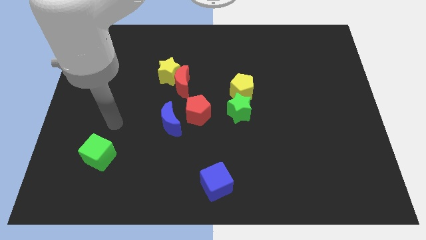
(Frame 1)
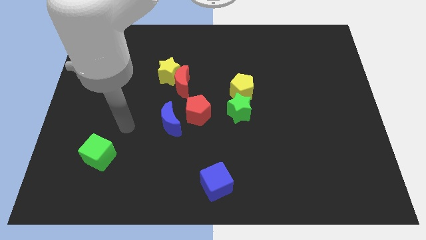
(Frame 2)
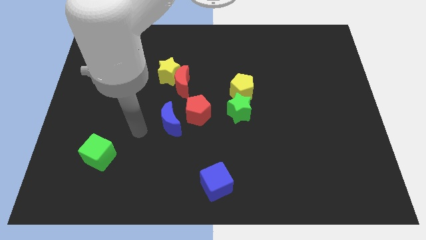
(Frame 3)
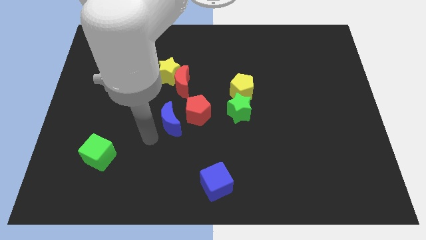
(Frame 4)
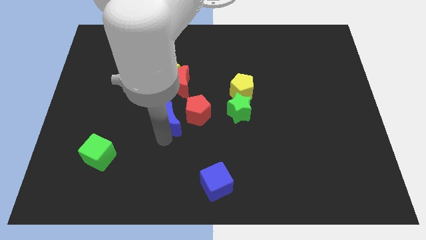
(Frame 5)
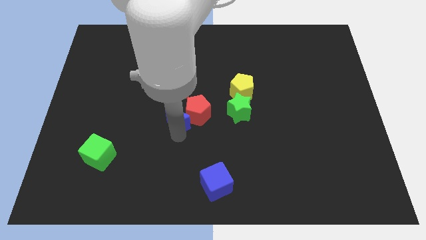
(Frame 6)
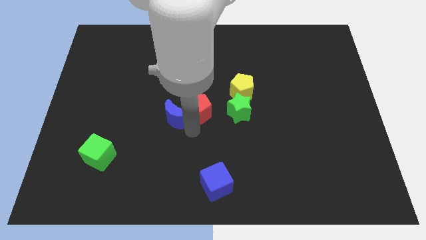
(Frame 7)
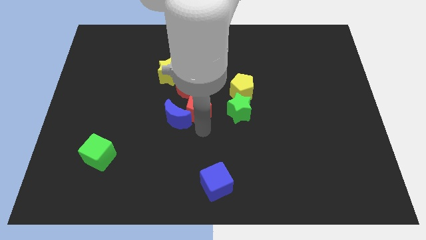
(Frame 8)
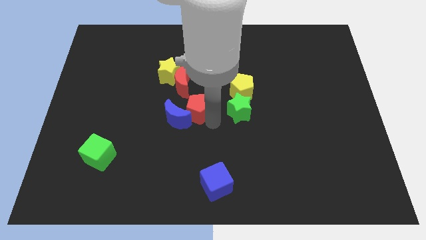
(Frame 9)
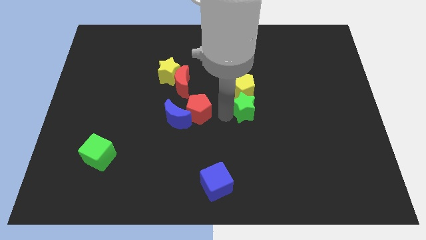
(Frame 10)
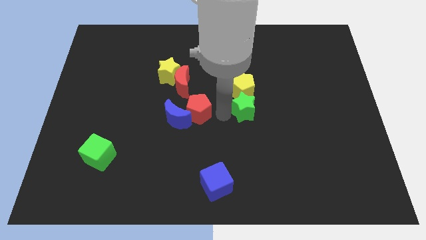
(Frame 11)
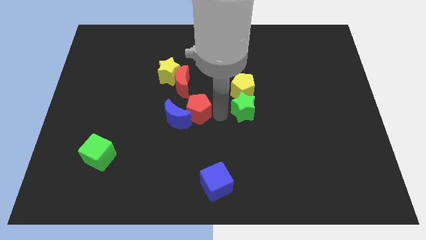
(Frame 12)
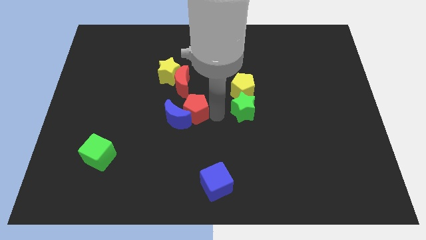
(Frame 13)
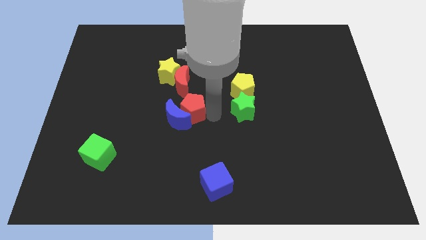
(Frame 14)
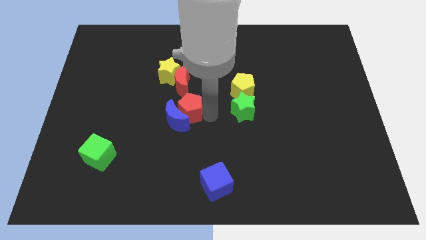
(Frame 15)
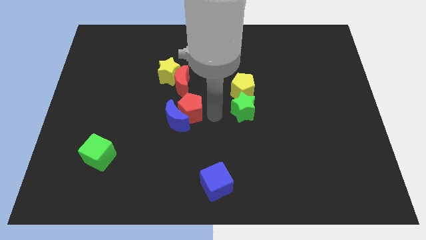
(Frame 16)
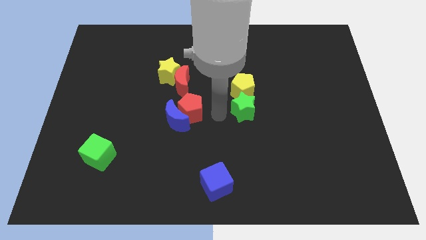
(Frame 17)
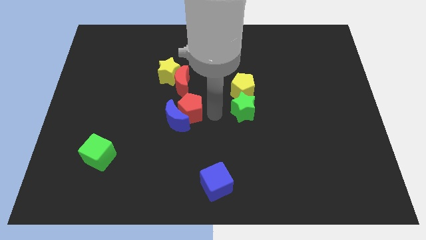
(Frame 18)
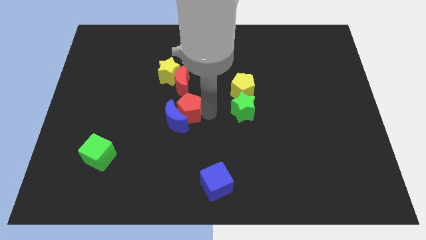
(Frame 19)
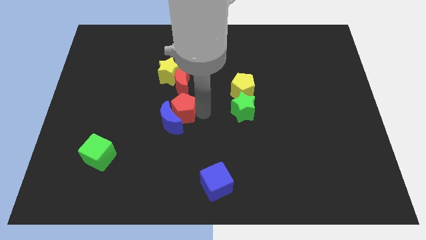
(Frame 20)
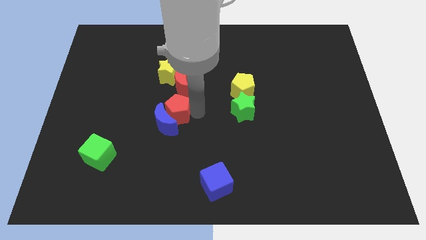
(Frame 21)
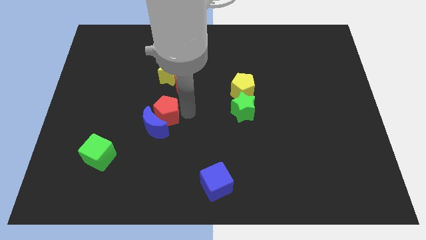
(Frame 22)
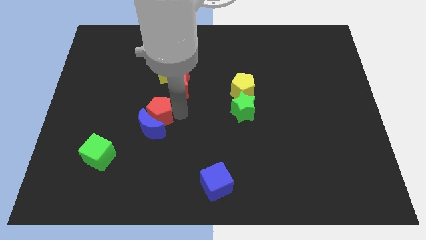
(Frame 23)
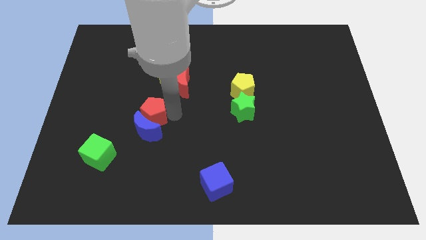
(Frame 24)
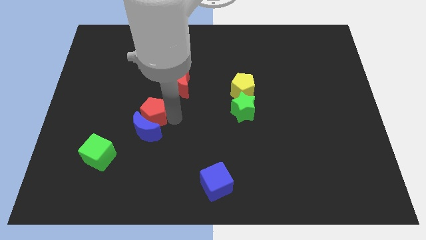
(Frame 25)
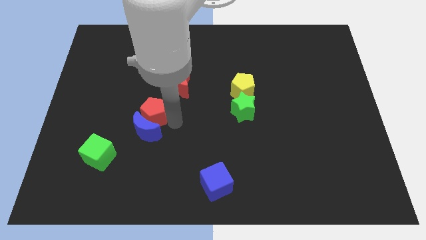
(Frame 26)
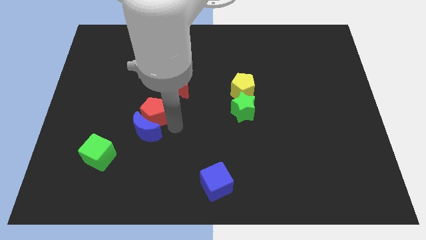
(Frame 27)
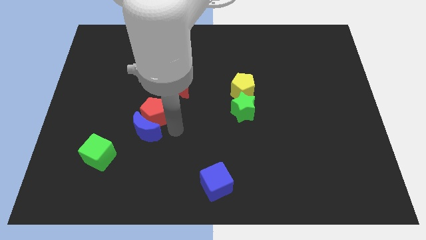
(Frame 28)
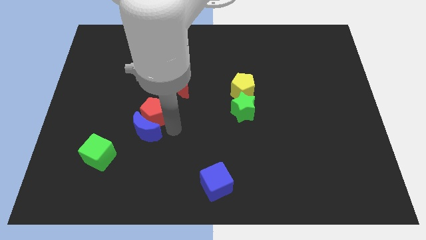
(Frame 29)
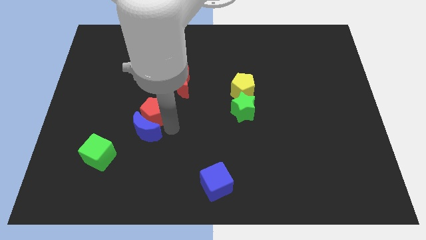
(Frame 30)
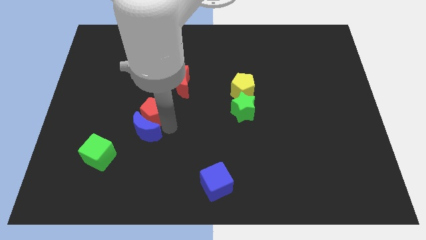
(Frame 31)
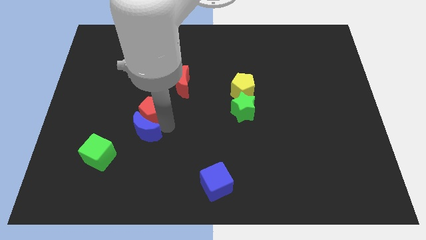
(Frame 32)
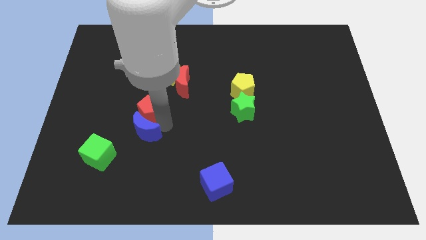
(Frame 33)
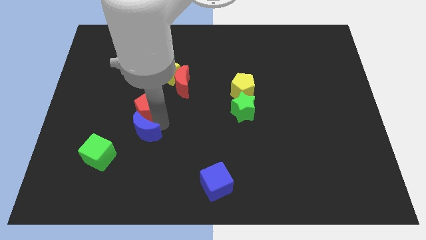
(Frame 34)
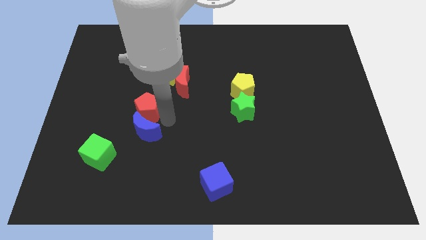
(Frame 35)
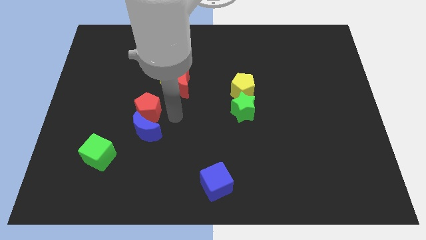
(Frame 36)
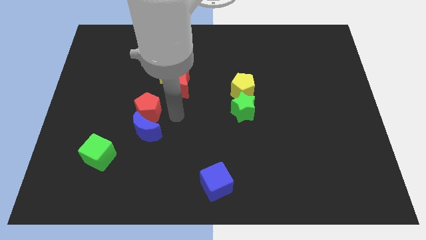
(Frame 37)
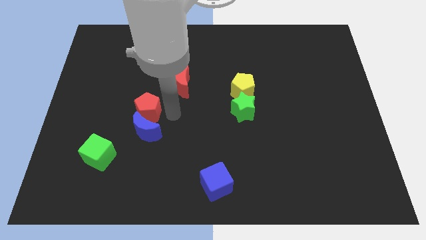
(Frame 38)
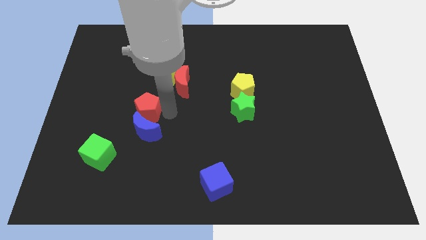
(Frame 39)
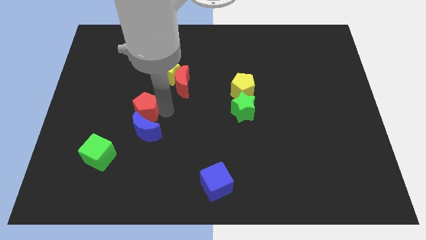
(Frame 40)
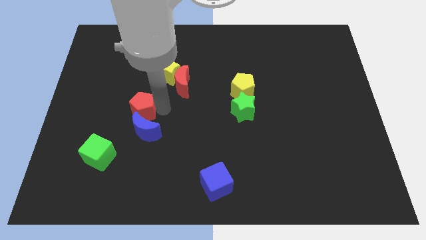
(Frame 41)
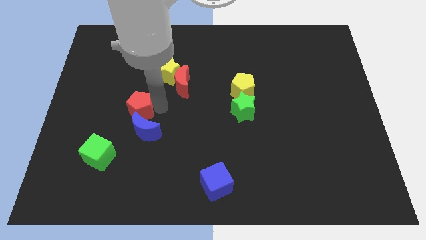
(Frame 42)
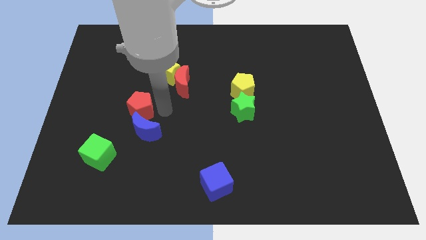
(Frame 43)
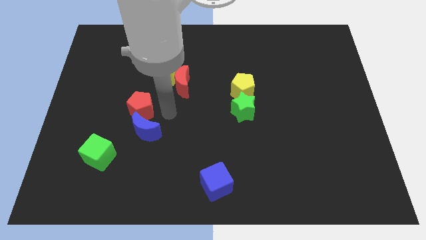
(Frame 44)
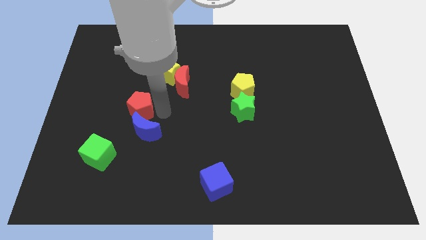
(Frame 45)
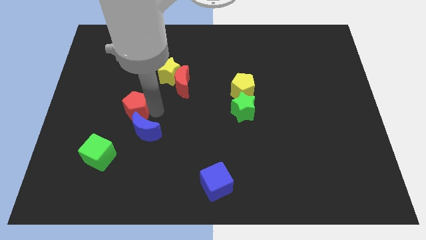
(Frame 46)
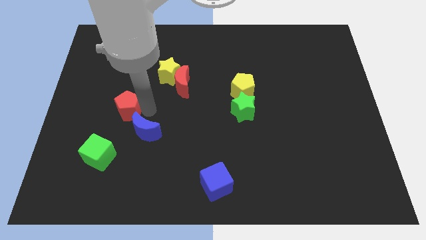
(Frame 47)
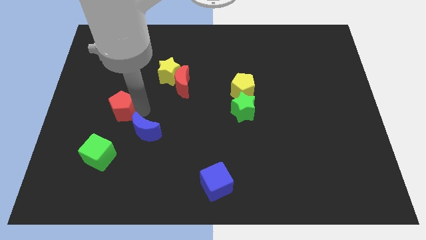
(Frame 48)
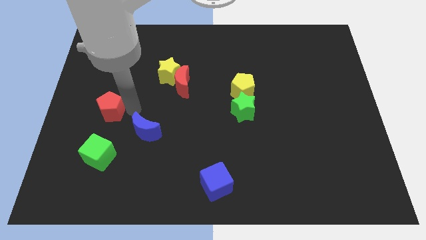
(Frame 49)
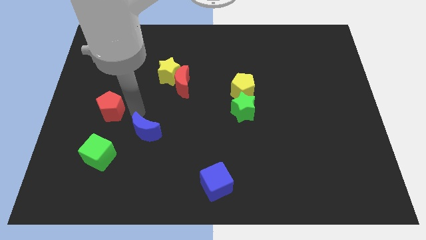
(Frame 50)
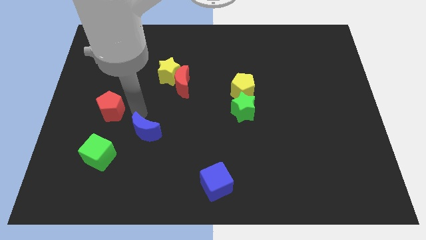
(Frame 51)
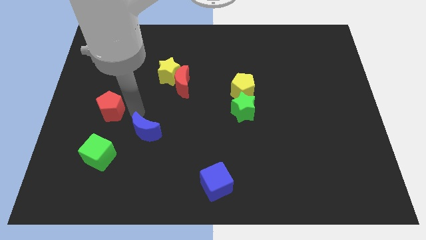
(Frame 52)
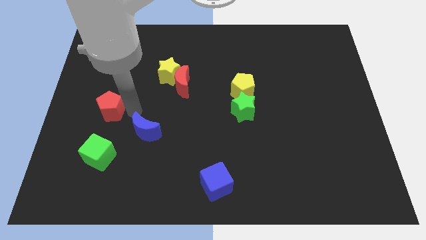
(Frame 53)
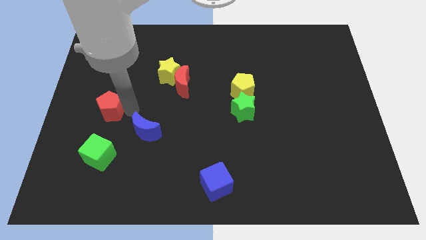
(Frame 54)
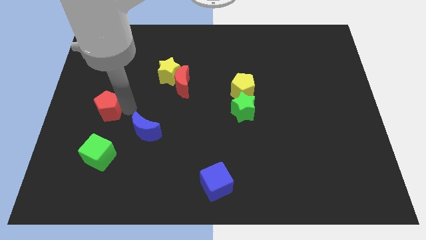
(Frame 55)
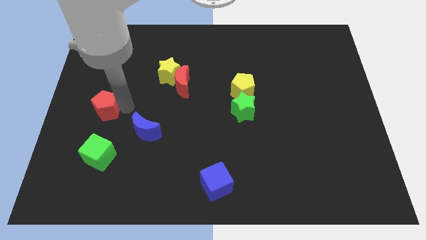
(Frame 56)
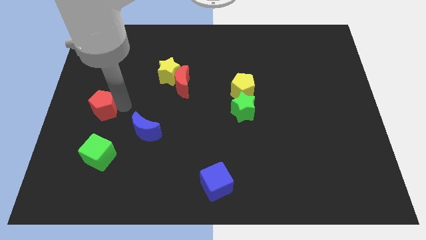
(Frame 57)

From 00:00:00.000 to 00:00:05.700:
slide the red pentagon to the center left

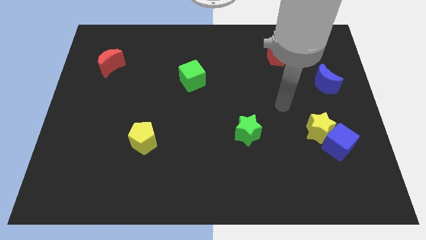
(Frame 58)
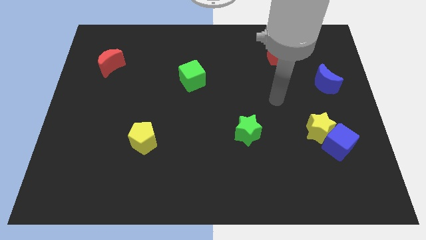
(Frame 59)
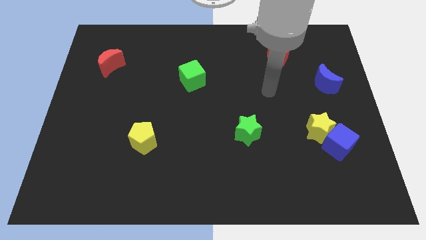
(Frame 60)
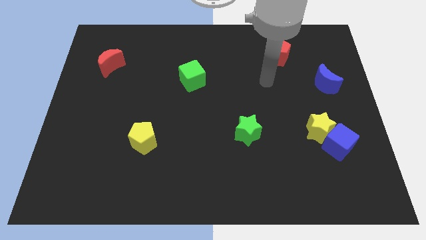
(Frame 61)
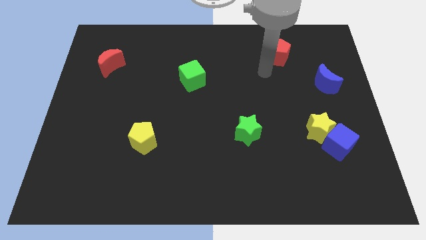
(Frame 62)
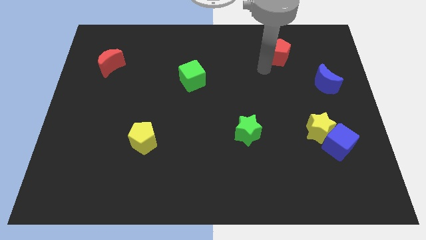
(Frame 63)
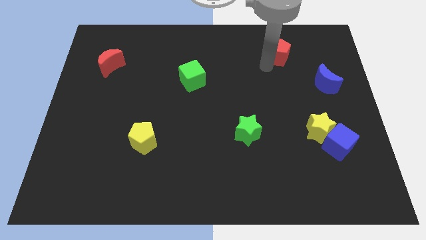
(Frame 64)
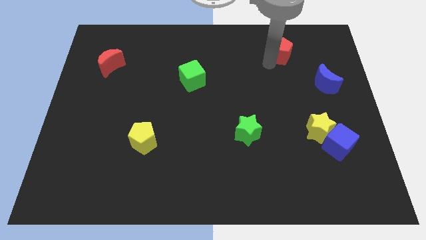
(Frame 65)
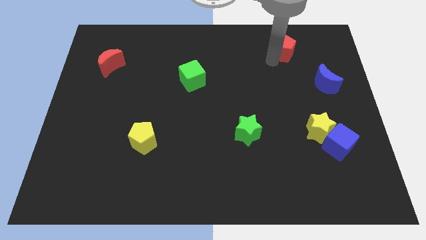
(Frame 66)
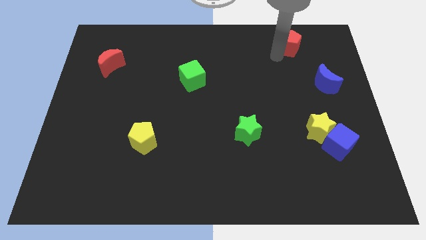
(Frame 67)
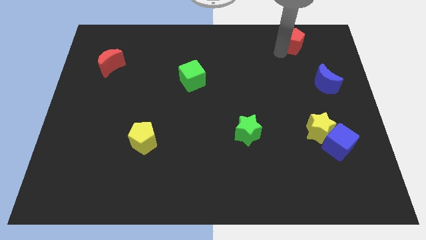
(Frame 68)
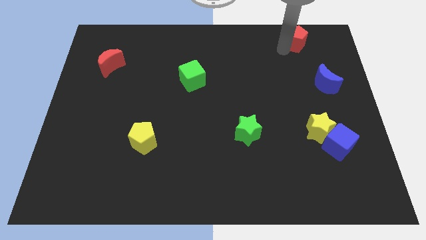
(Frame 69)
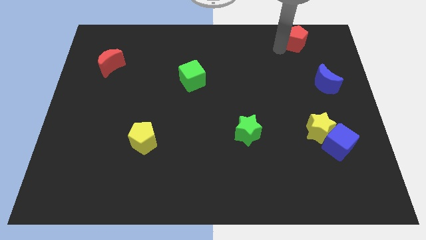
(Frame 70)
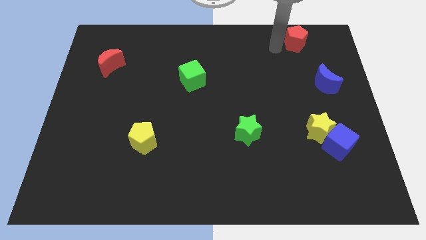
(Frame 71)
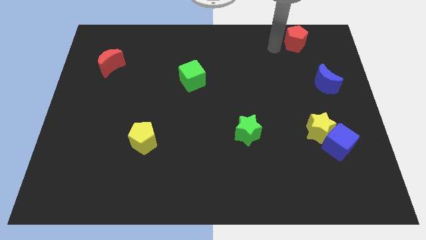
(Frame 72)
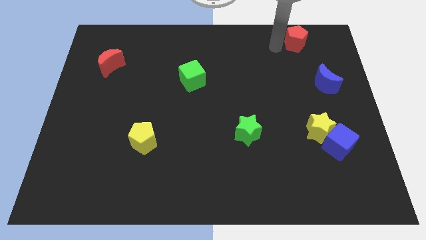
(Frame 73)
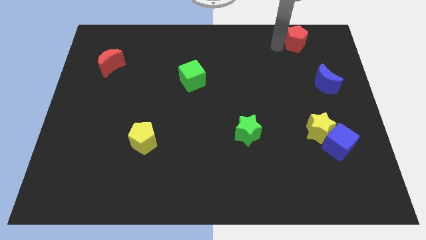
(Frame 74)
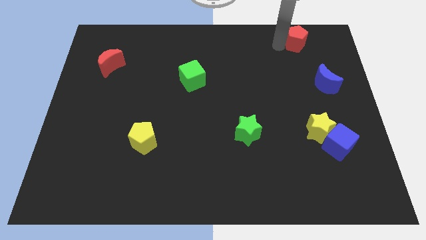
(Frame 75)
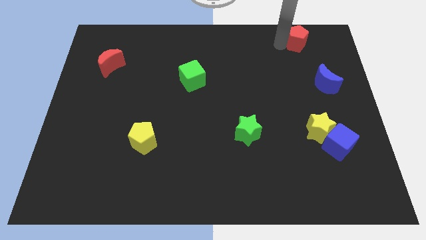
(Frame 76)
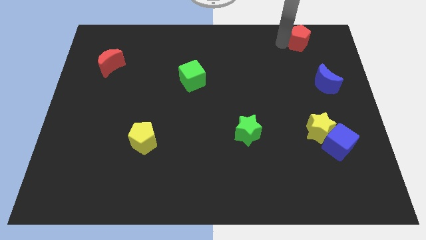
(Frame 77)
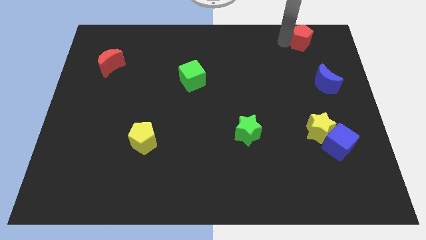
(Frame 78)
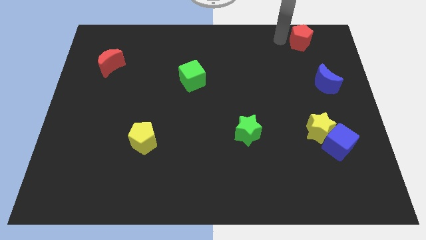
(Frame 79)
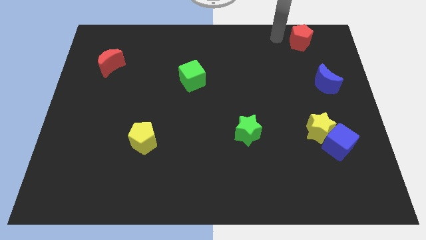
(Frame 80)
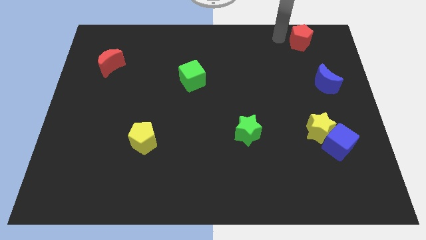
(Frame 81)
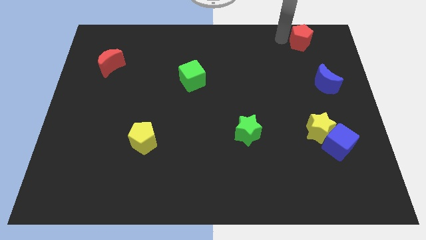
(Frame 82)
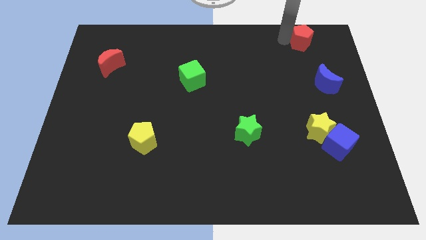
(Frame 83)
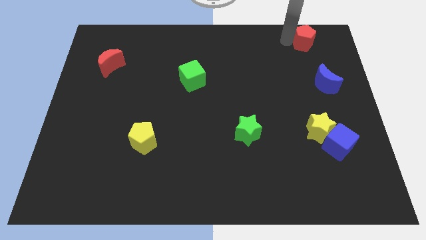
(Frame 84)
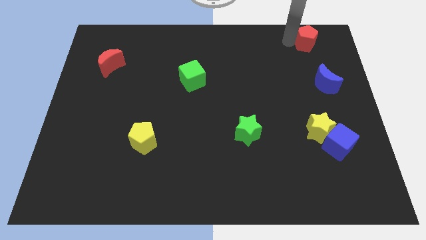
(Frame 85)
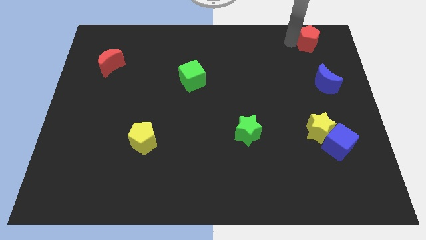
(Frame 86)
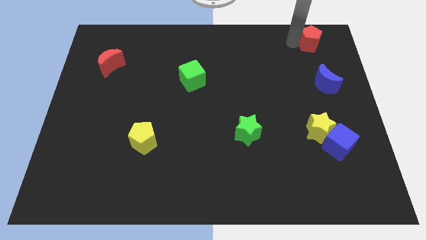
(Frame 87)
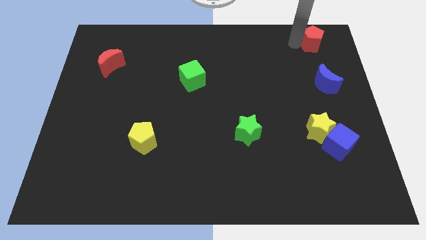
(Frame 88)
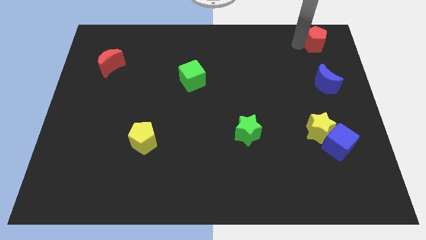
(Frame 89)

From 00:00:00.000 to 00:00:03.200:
put the red pentagon to the top right corner
